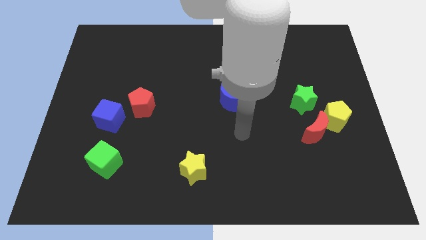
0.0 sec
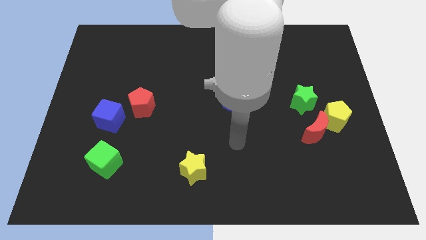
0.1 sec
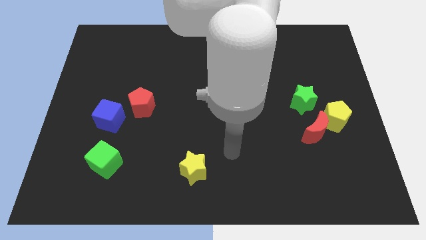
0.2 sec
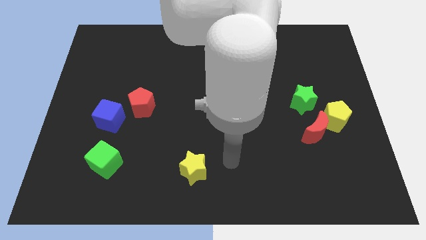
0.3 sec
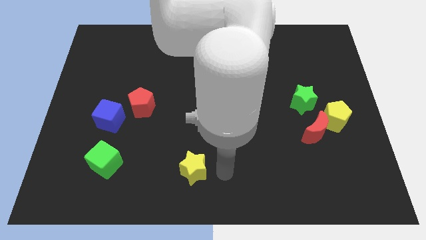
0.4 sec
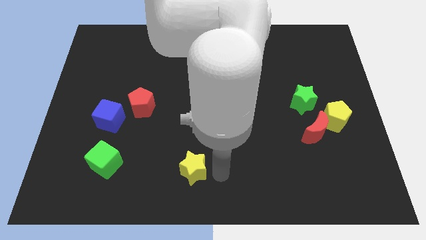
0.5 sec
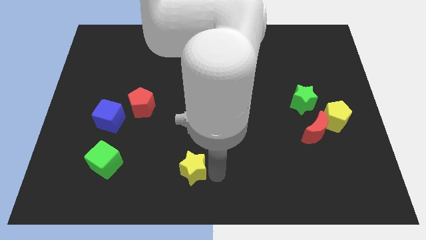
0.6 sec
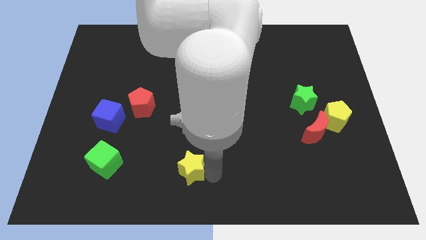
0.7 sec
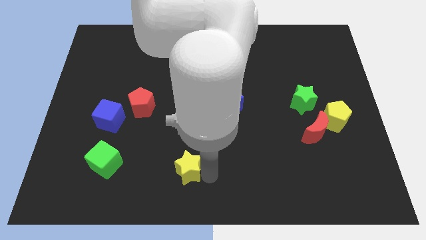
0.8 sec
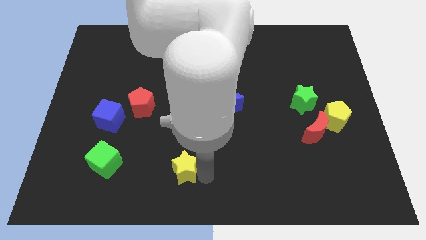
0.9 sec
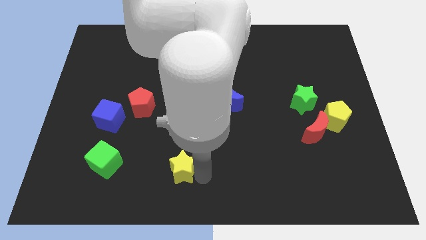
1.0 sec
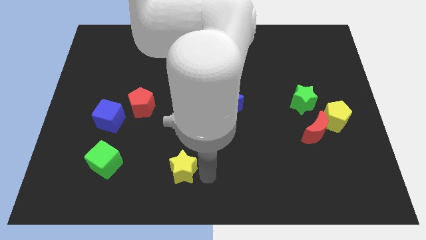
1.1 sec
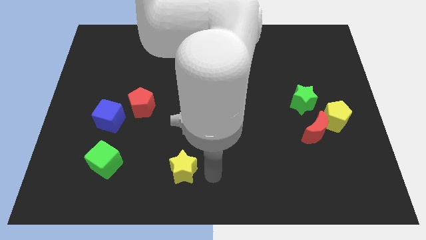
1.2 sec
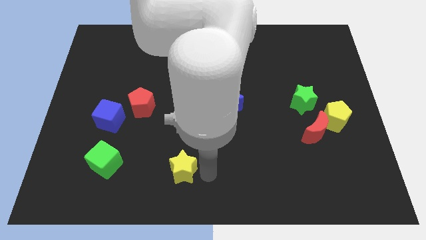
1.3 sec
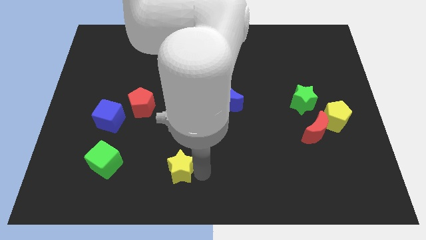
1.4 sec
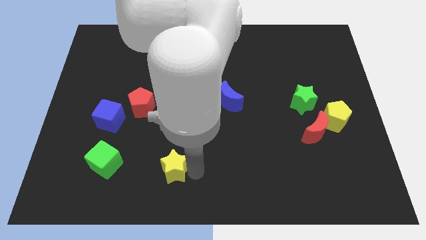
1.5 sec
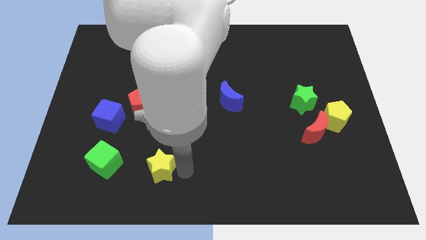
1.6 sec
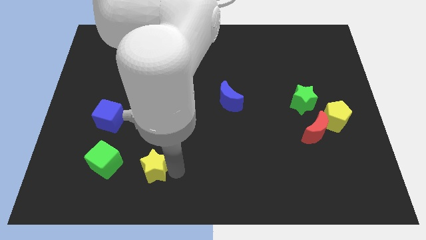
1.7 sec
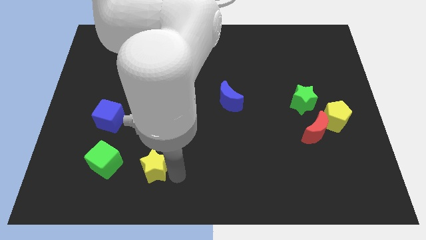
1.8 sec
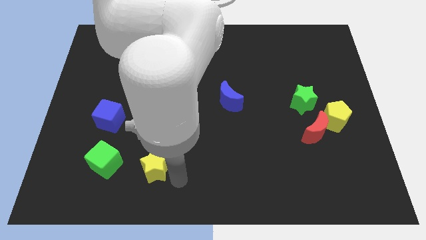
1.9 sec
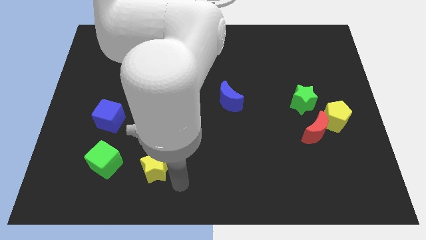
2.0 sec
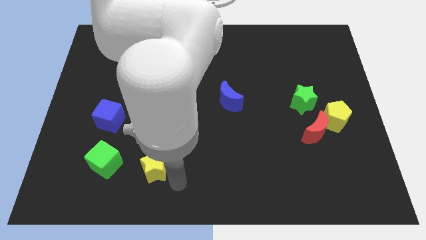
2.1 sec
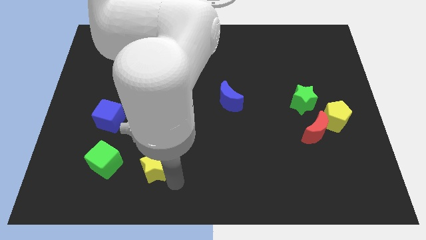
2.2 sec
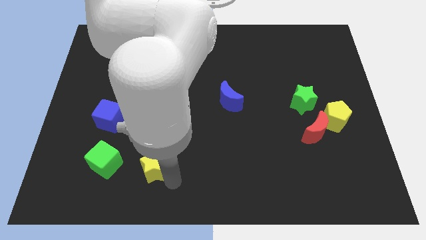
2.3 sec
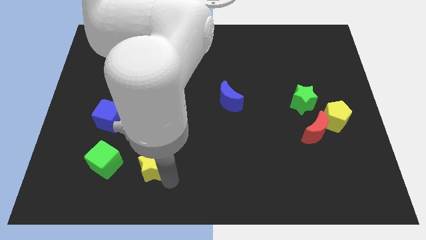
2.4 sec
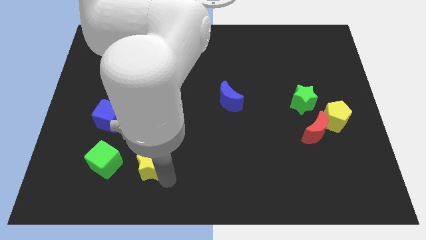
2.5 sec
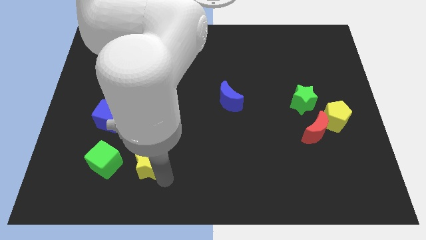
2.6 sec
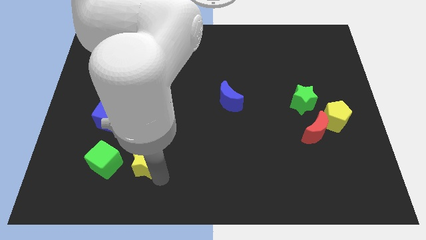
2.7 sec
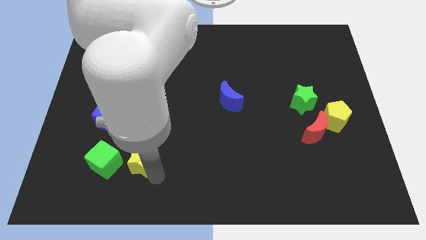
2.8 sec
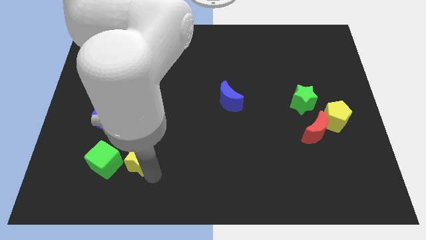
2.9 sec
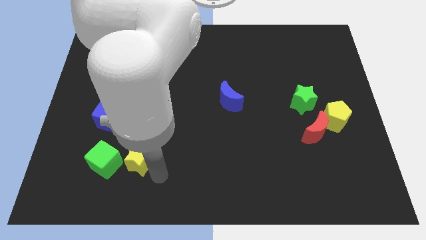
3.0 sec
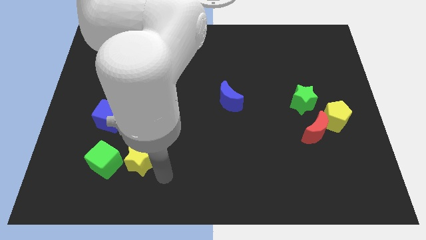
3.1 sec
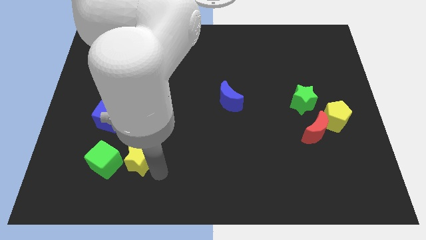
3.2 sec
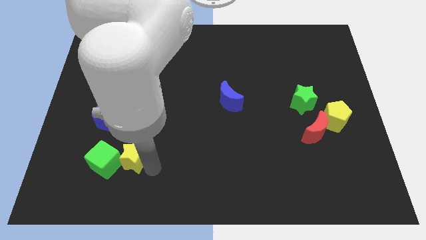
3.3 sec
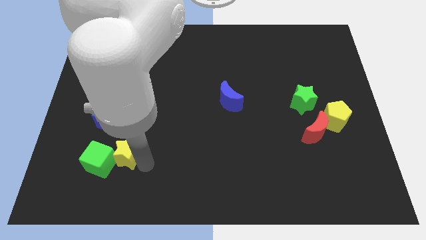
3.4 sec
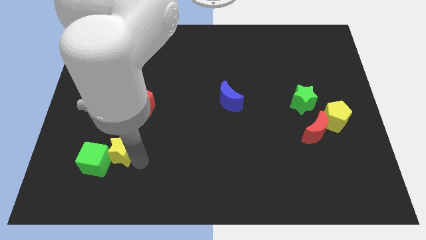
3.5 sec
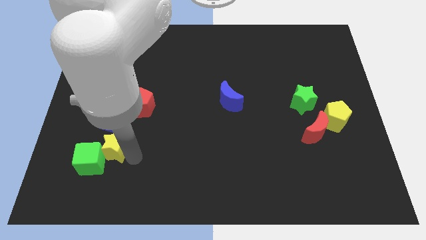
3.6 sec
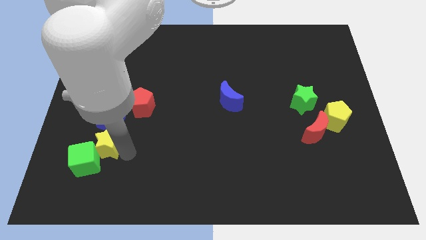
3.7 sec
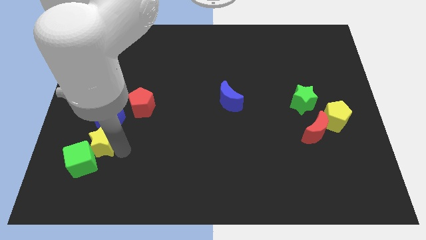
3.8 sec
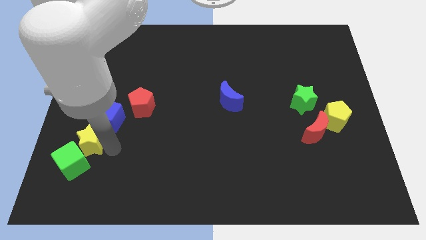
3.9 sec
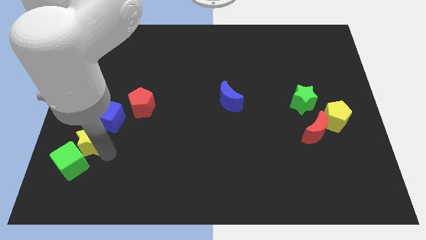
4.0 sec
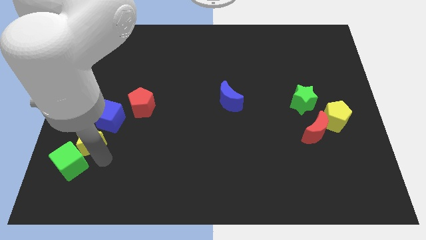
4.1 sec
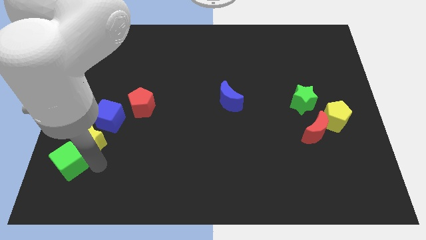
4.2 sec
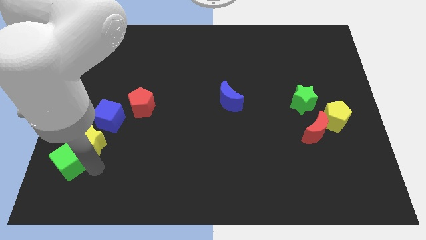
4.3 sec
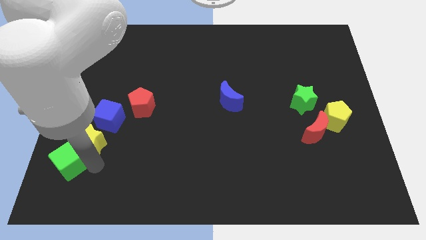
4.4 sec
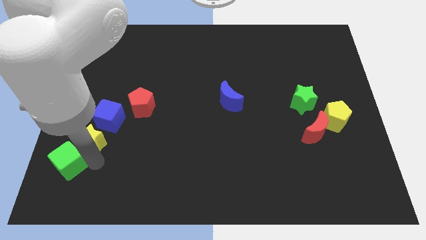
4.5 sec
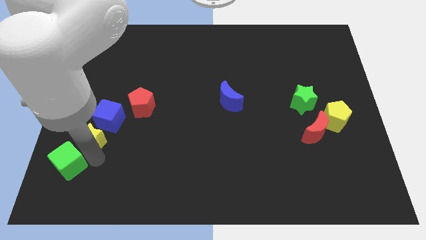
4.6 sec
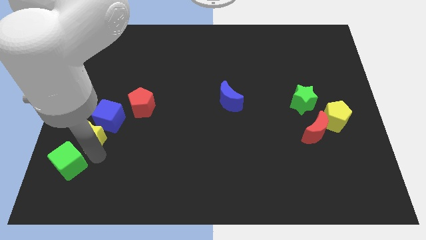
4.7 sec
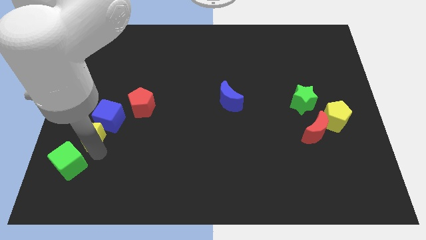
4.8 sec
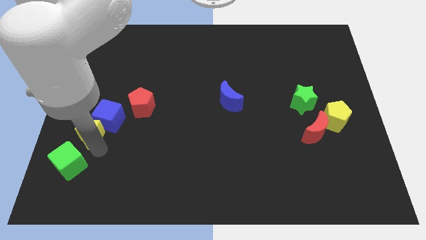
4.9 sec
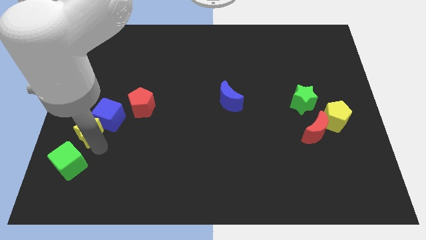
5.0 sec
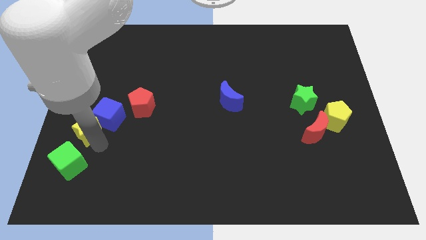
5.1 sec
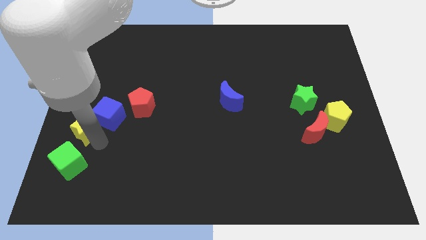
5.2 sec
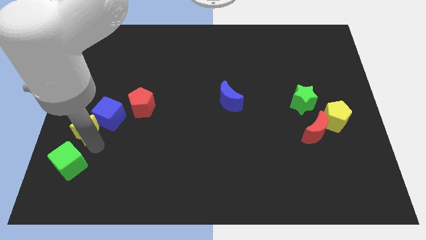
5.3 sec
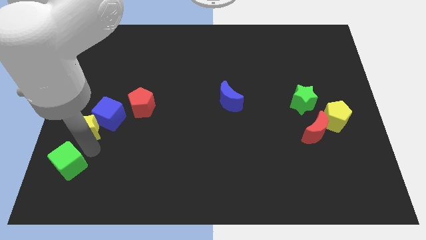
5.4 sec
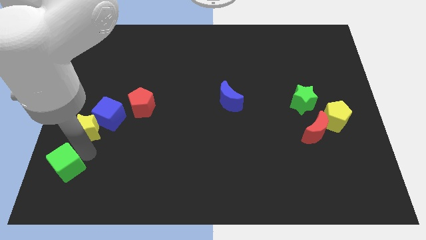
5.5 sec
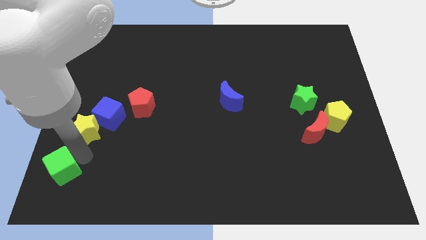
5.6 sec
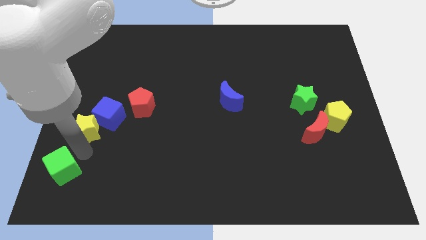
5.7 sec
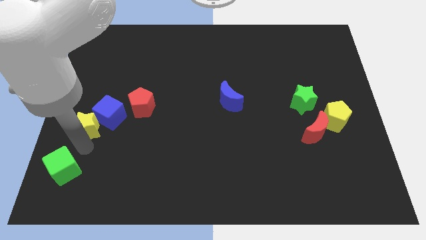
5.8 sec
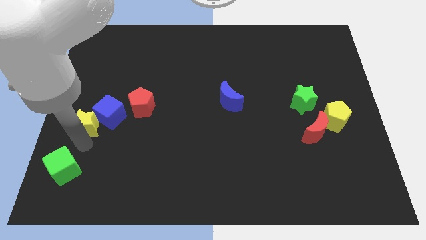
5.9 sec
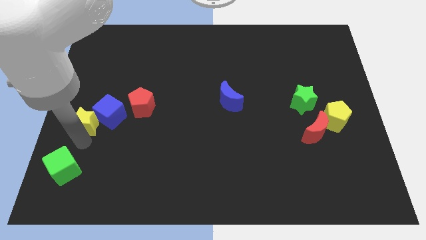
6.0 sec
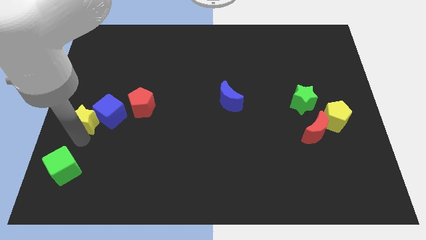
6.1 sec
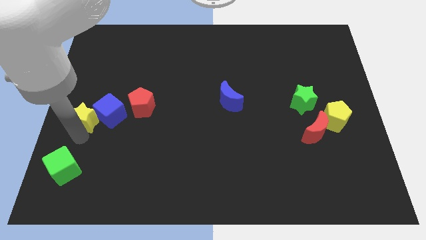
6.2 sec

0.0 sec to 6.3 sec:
put the yellow star to the left of the red pentagon

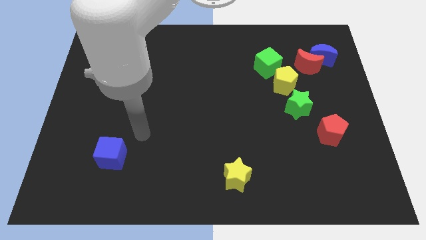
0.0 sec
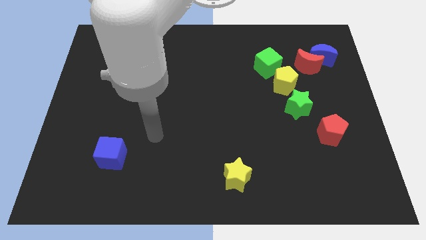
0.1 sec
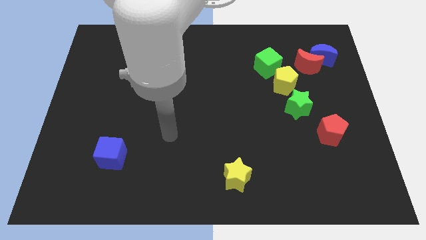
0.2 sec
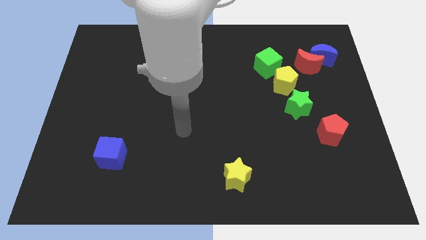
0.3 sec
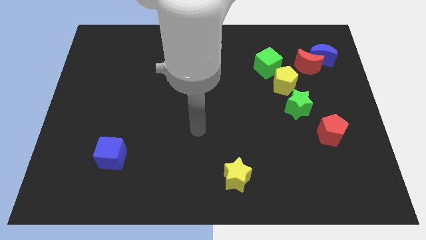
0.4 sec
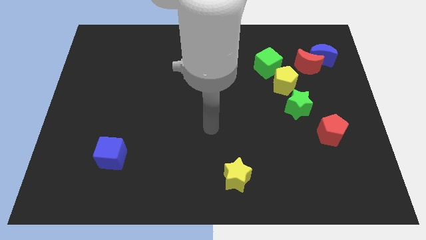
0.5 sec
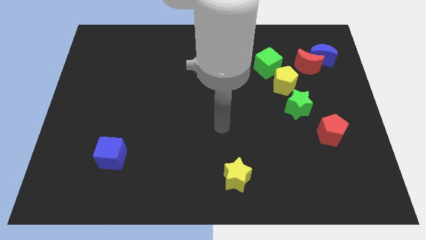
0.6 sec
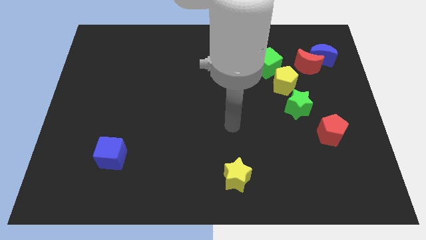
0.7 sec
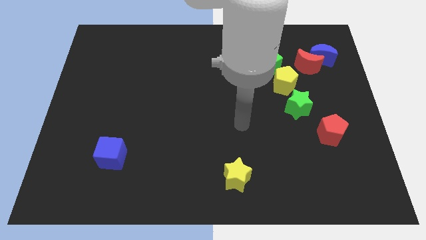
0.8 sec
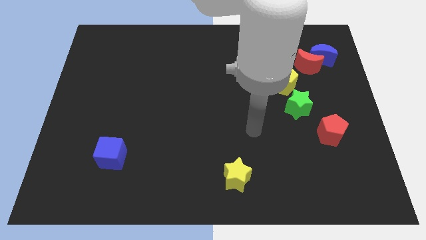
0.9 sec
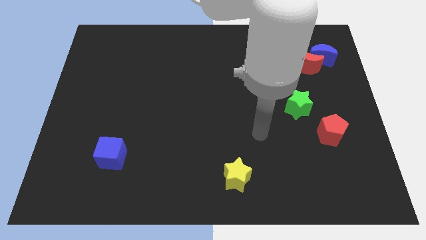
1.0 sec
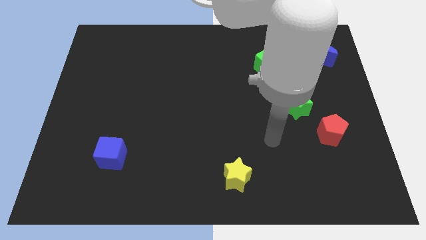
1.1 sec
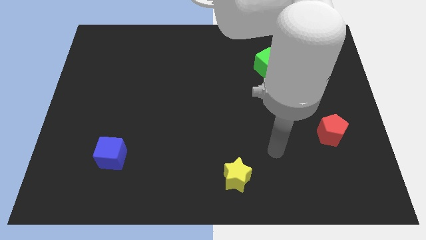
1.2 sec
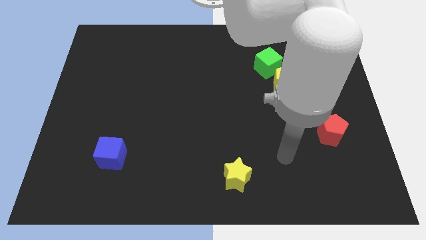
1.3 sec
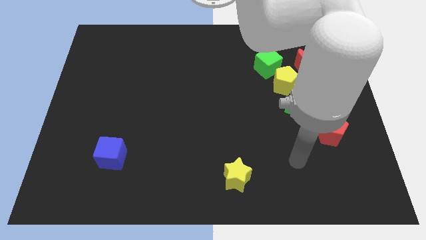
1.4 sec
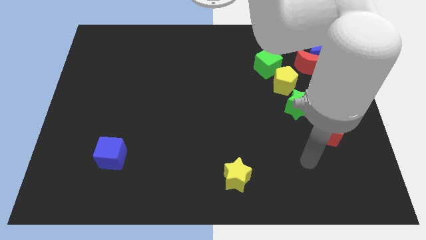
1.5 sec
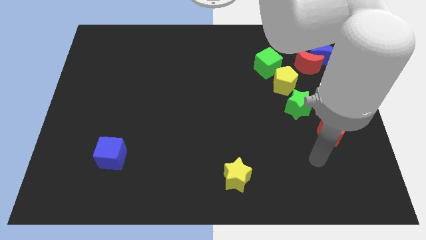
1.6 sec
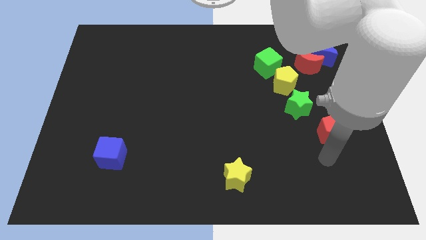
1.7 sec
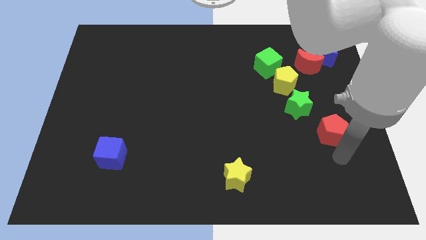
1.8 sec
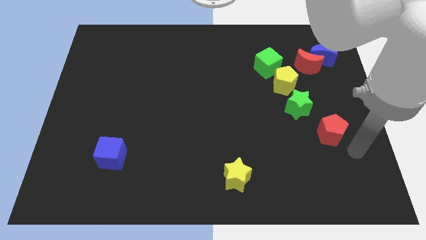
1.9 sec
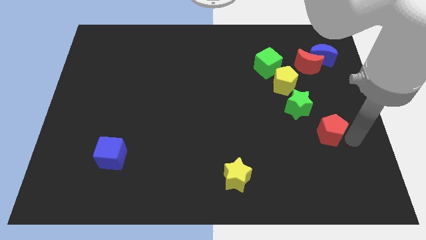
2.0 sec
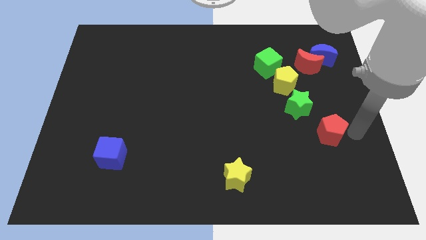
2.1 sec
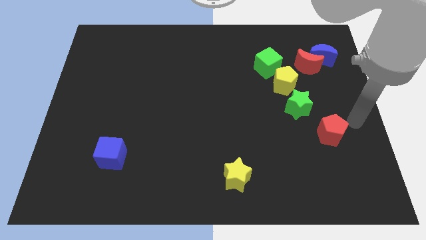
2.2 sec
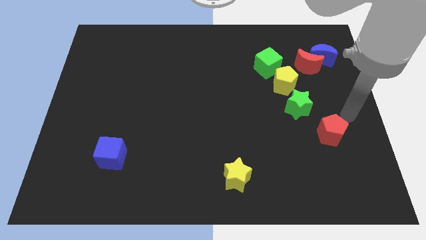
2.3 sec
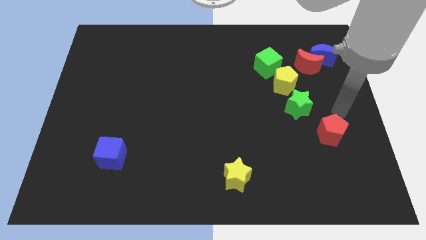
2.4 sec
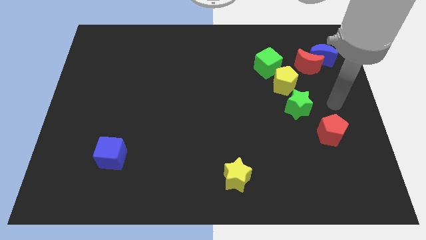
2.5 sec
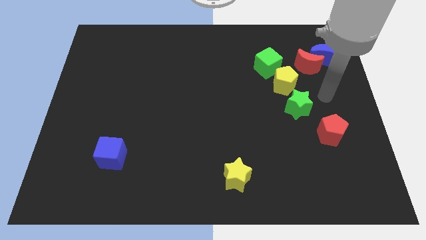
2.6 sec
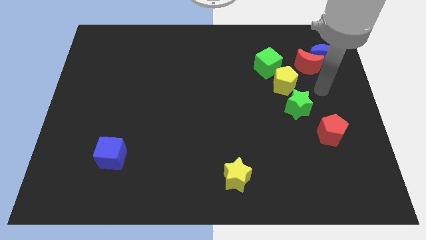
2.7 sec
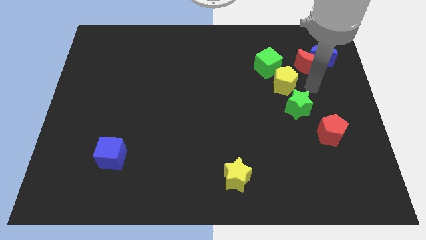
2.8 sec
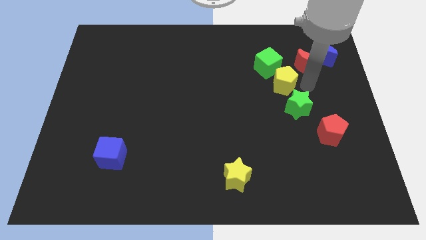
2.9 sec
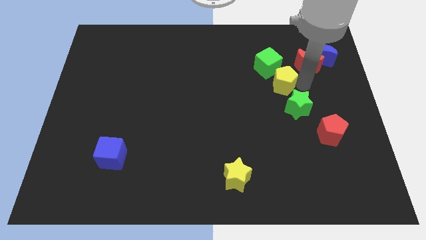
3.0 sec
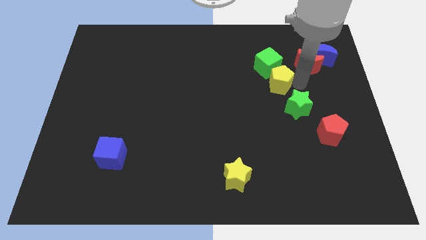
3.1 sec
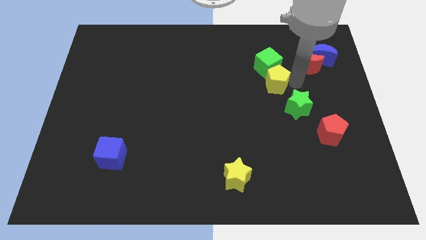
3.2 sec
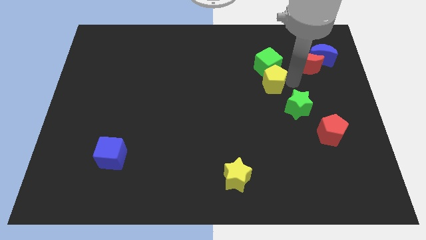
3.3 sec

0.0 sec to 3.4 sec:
move the yellow pentagon to the bottom left of the green cube
